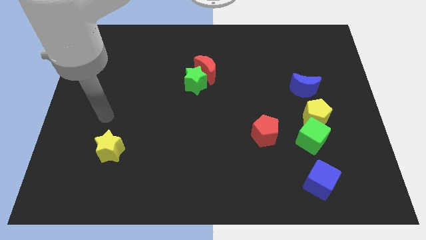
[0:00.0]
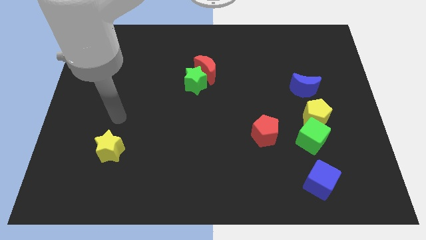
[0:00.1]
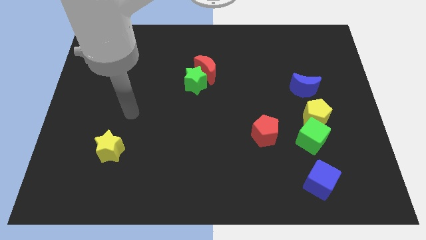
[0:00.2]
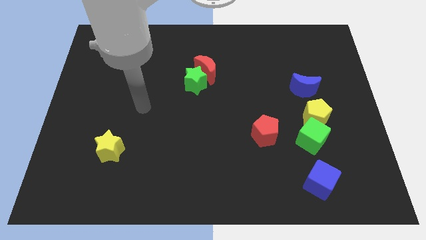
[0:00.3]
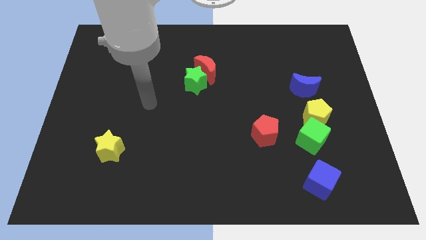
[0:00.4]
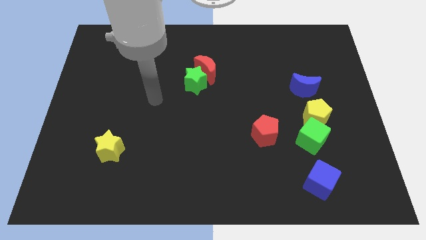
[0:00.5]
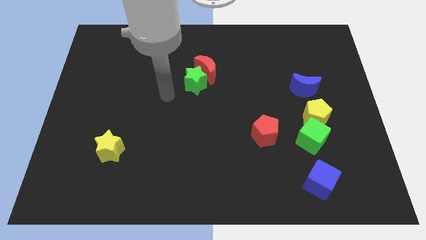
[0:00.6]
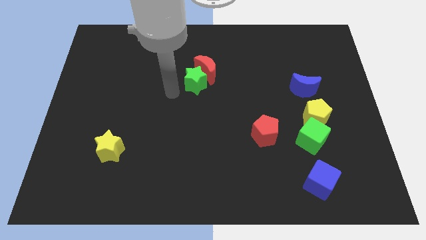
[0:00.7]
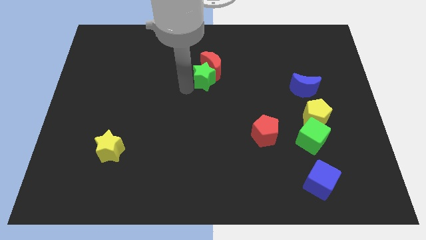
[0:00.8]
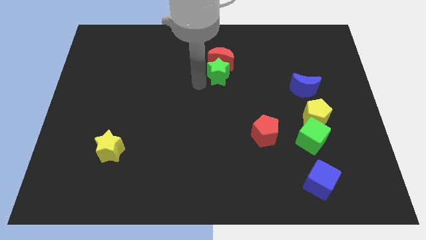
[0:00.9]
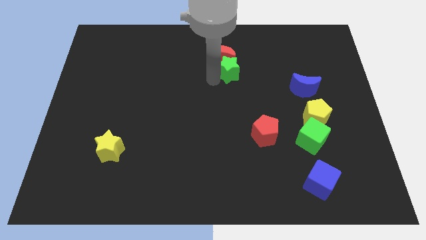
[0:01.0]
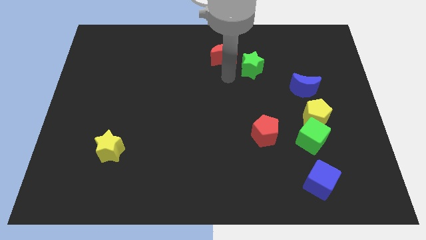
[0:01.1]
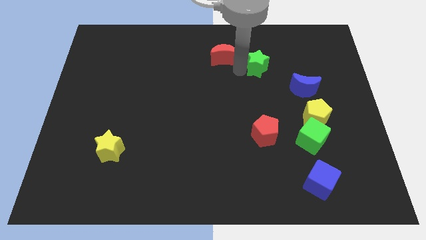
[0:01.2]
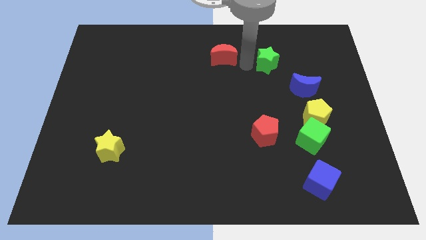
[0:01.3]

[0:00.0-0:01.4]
separate the red moon from the green star

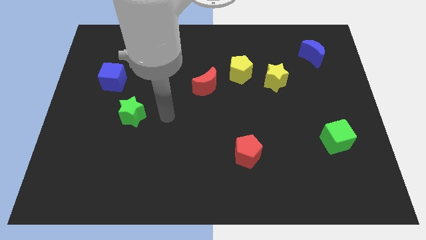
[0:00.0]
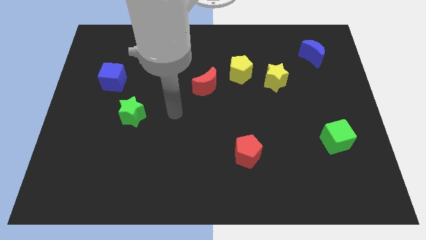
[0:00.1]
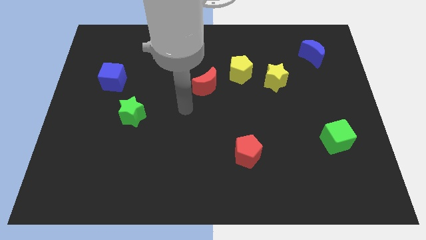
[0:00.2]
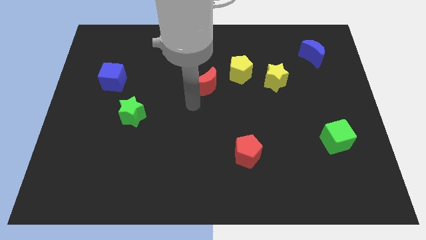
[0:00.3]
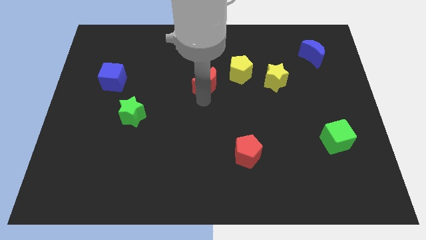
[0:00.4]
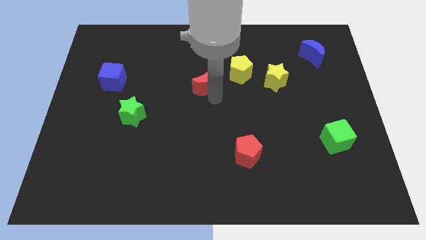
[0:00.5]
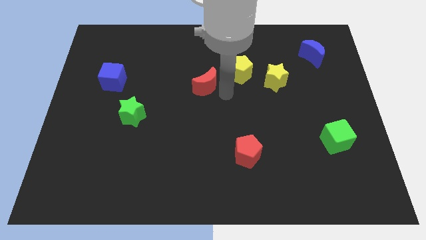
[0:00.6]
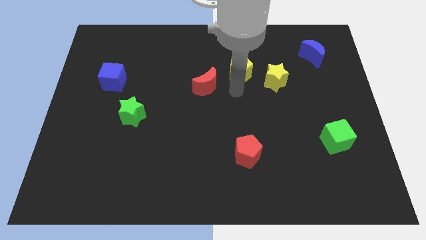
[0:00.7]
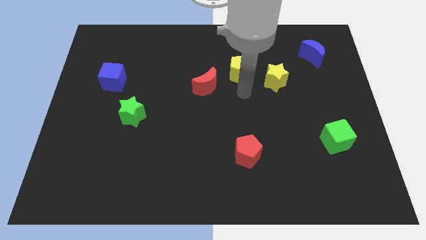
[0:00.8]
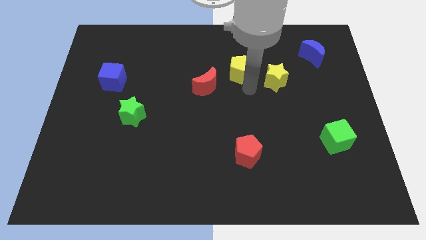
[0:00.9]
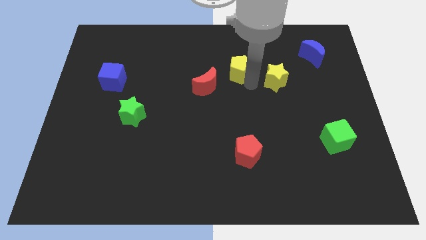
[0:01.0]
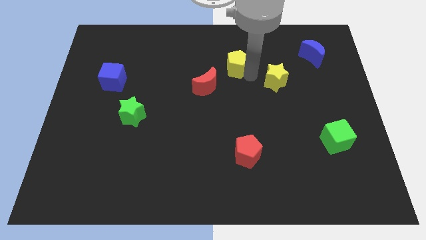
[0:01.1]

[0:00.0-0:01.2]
move the yellow star away from the yellow pentagon

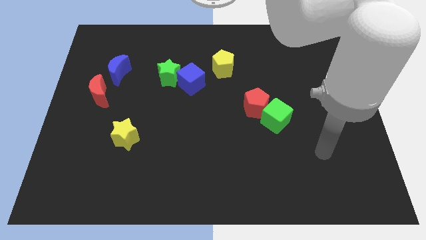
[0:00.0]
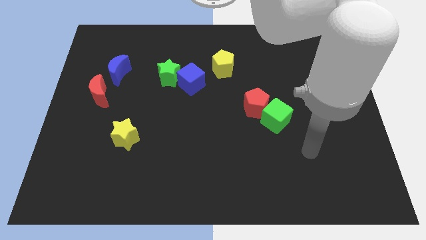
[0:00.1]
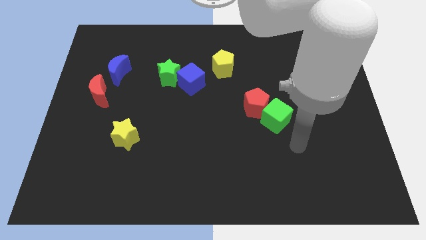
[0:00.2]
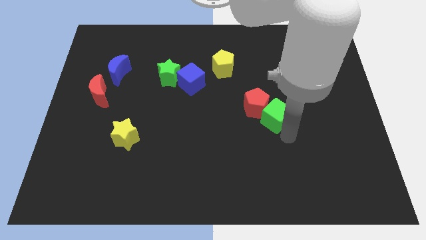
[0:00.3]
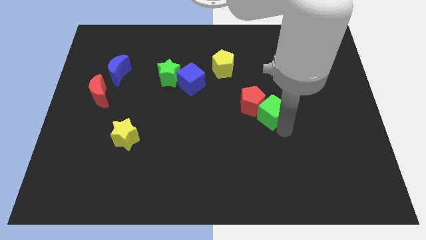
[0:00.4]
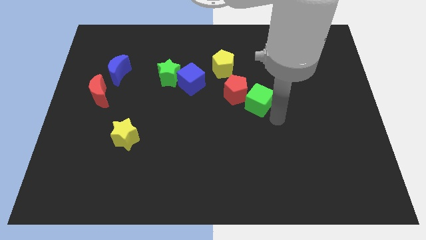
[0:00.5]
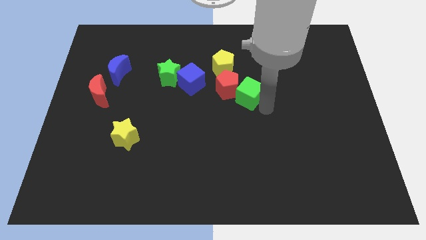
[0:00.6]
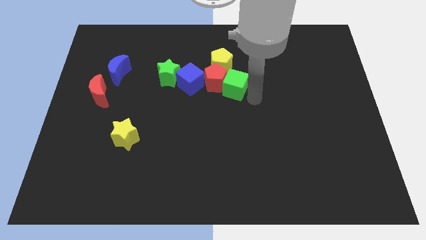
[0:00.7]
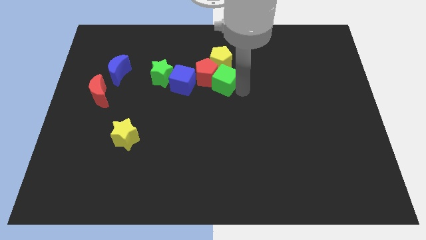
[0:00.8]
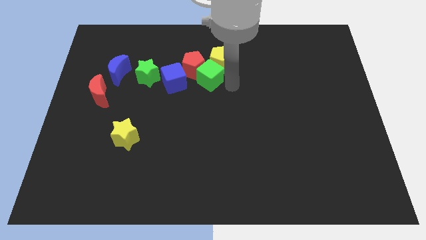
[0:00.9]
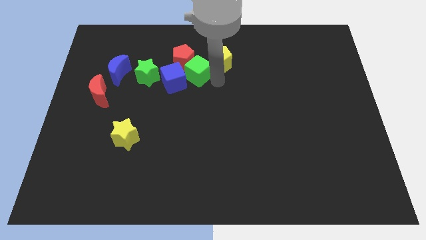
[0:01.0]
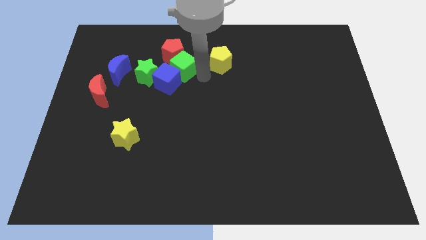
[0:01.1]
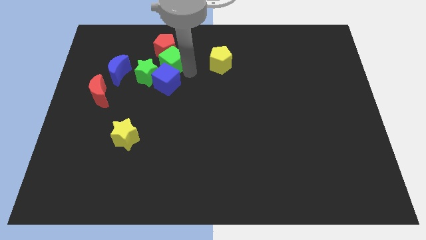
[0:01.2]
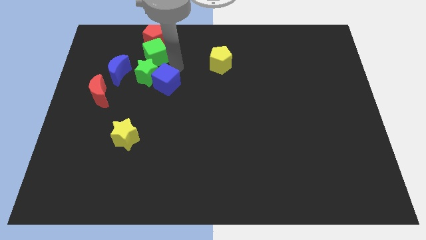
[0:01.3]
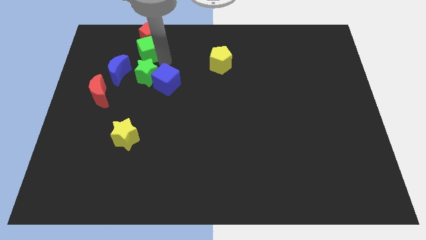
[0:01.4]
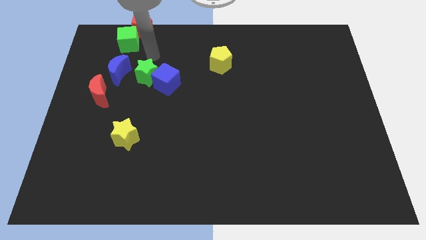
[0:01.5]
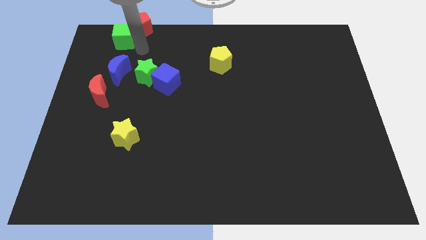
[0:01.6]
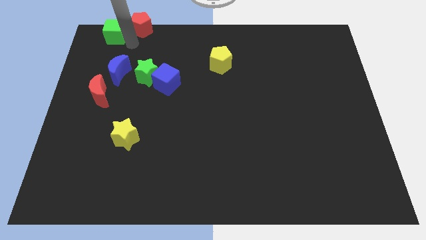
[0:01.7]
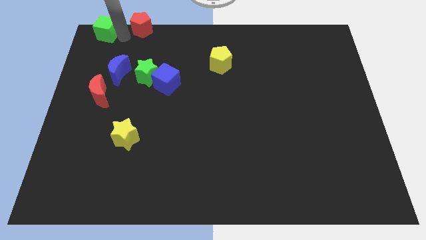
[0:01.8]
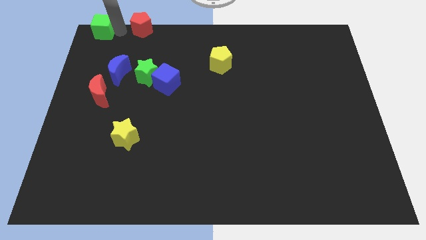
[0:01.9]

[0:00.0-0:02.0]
pull the red pentagon apart from the green cube

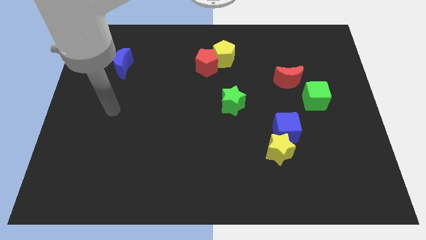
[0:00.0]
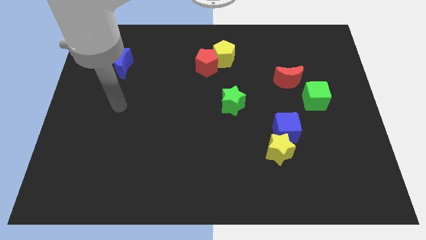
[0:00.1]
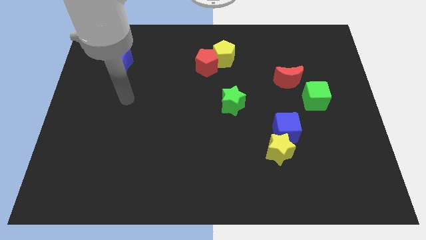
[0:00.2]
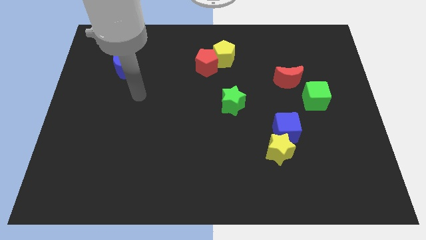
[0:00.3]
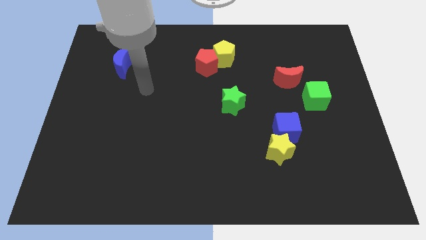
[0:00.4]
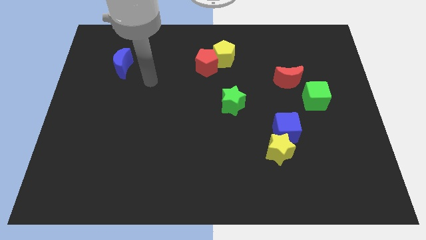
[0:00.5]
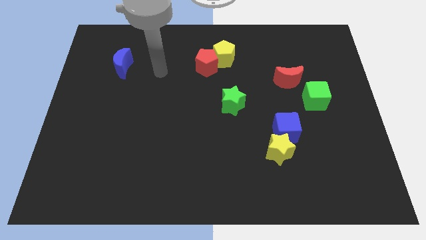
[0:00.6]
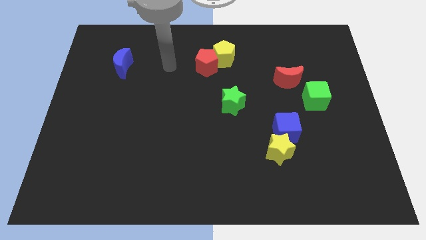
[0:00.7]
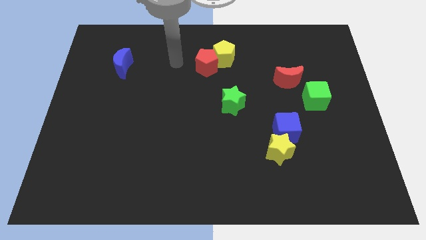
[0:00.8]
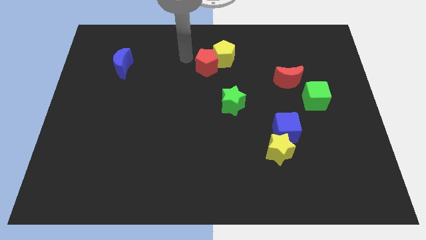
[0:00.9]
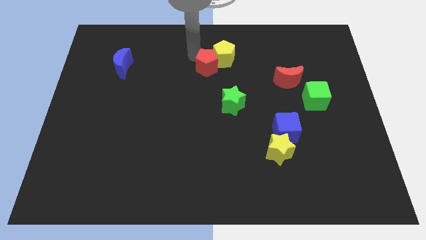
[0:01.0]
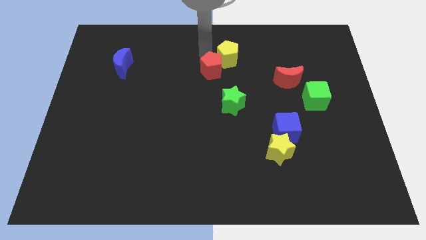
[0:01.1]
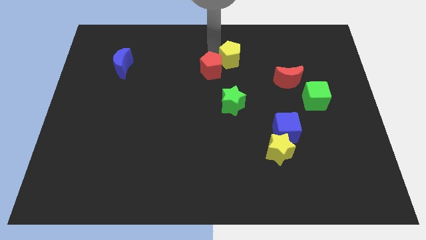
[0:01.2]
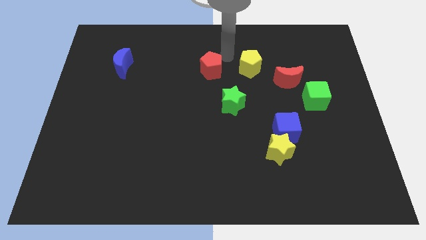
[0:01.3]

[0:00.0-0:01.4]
separate the red pentagon from the yellow pentagon

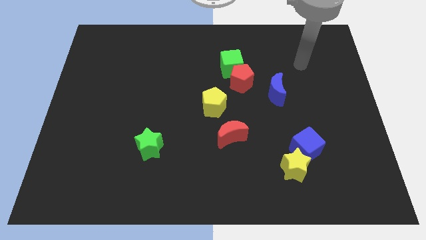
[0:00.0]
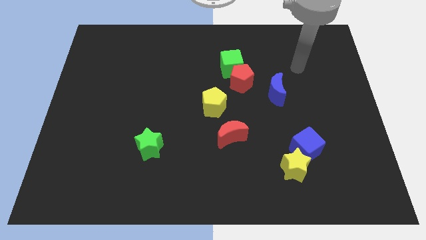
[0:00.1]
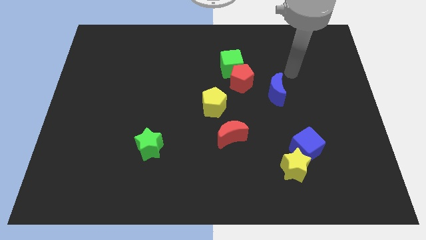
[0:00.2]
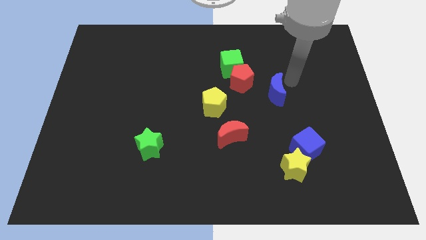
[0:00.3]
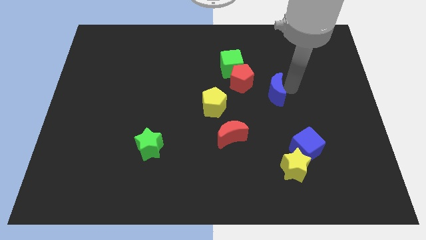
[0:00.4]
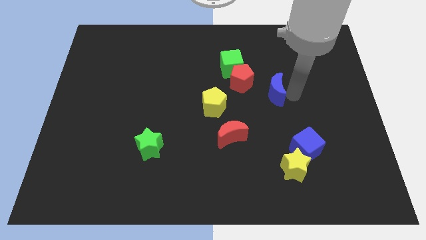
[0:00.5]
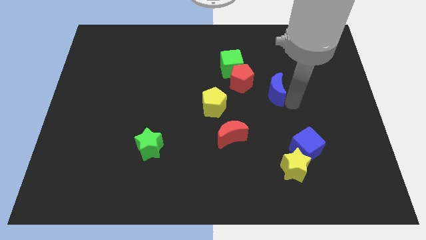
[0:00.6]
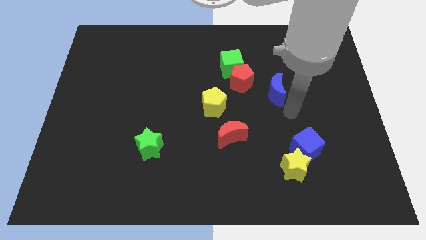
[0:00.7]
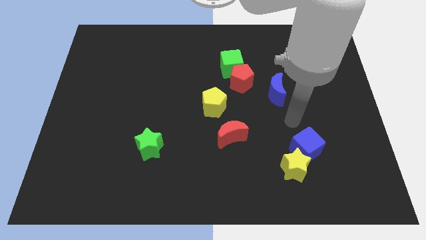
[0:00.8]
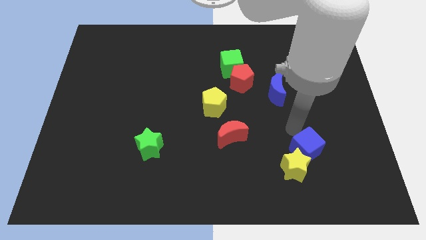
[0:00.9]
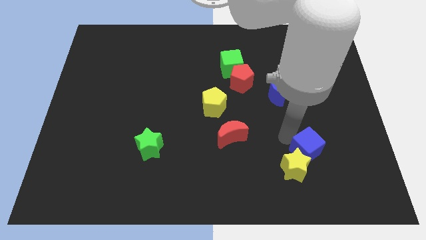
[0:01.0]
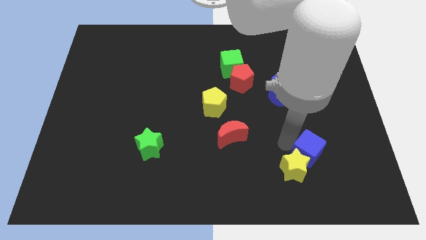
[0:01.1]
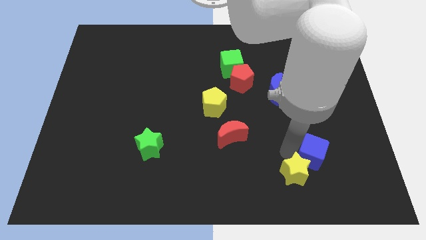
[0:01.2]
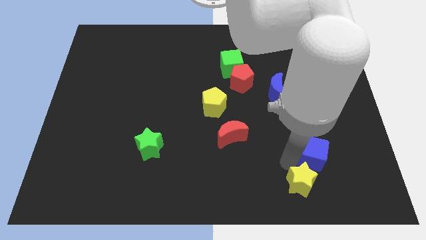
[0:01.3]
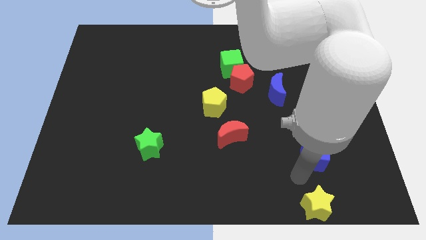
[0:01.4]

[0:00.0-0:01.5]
pull the blue cube apart from the yellow star

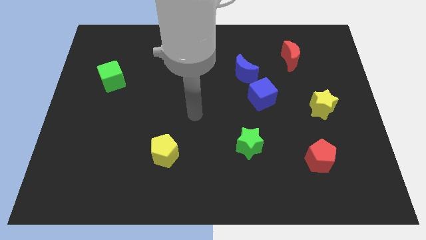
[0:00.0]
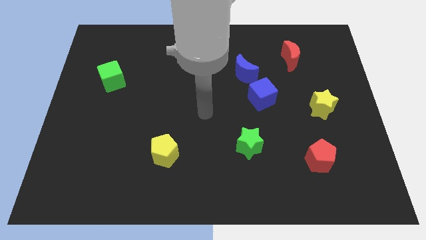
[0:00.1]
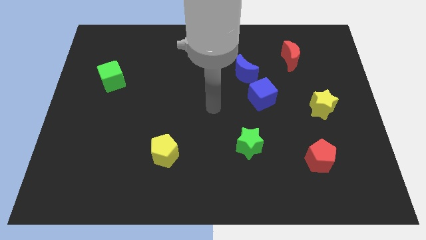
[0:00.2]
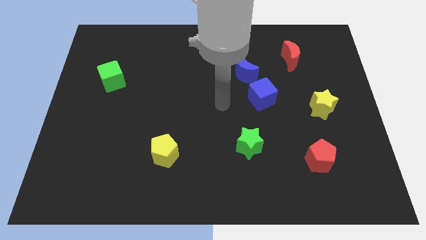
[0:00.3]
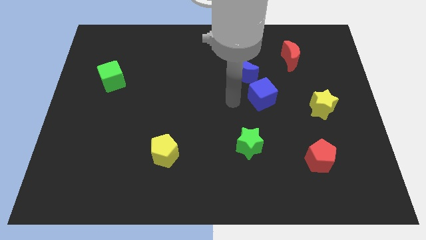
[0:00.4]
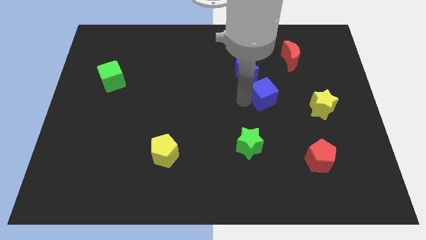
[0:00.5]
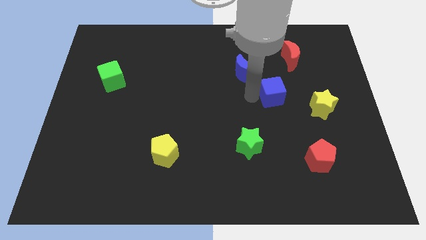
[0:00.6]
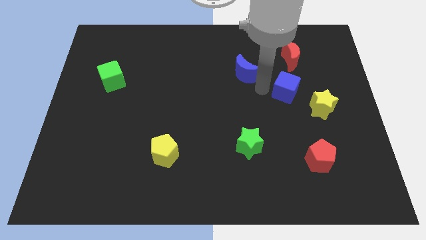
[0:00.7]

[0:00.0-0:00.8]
move the blue moon away from the blue cube

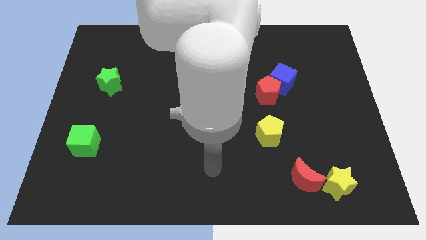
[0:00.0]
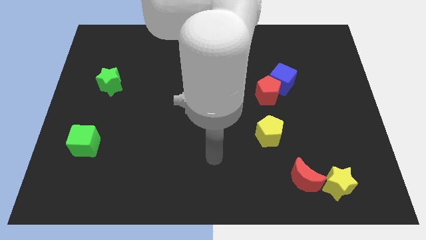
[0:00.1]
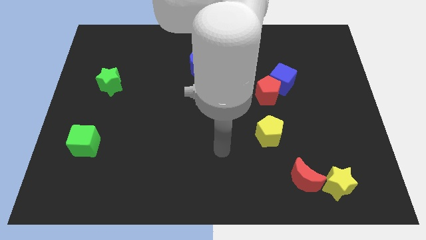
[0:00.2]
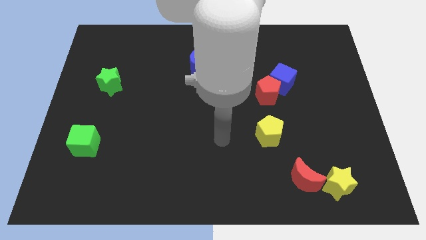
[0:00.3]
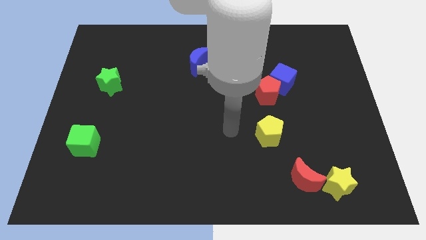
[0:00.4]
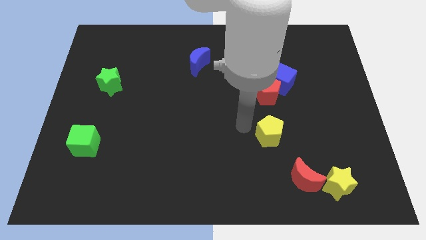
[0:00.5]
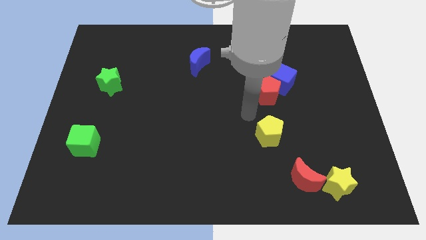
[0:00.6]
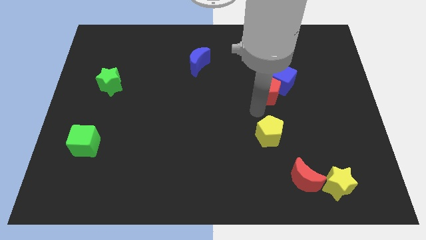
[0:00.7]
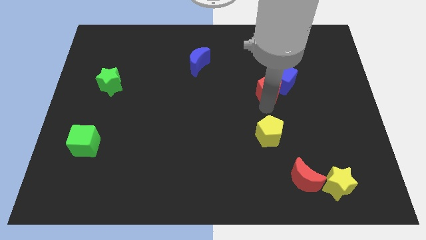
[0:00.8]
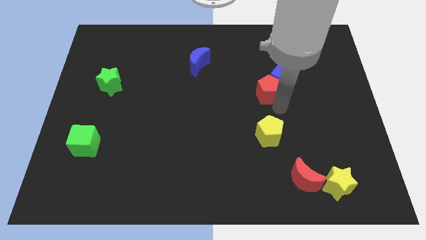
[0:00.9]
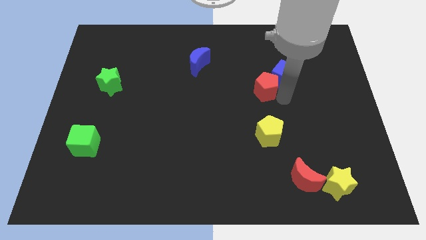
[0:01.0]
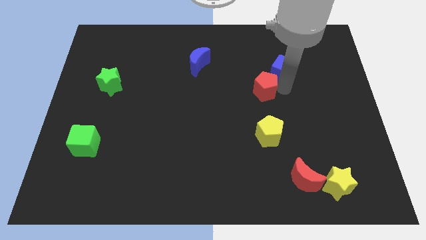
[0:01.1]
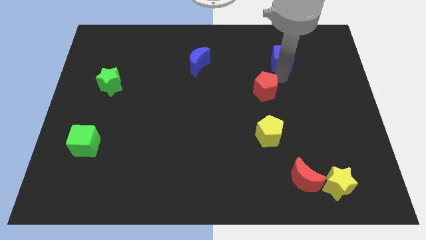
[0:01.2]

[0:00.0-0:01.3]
separate the red pentagon from the blue cube
